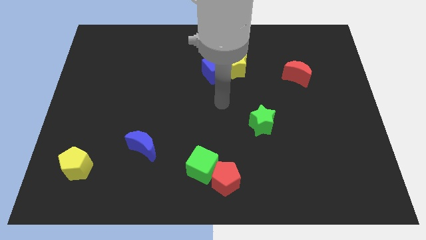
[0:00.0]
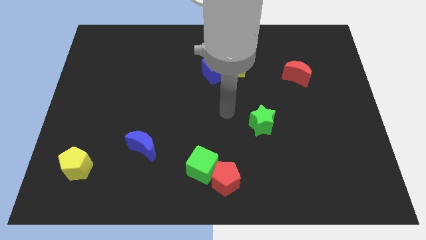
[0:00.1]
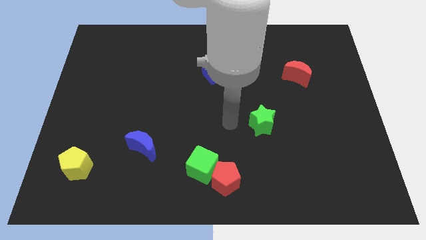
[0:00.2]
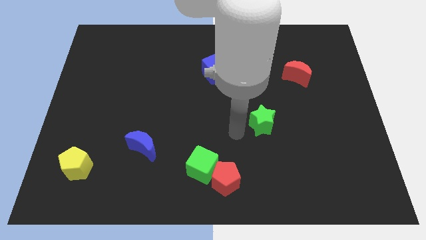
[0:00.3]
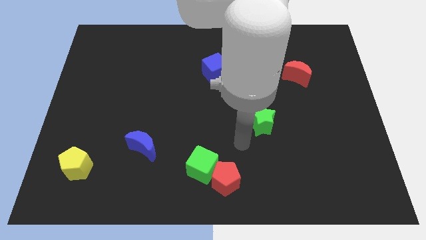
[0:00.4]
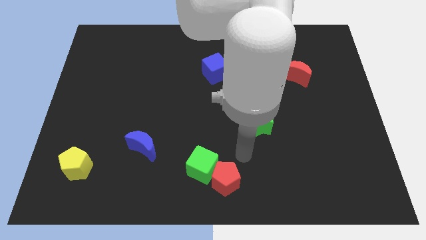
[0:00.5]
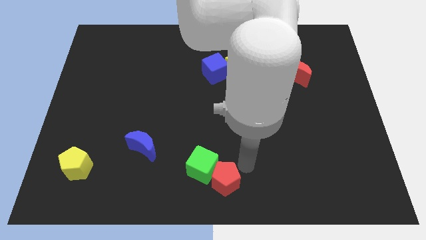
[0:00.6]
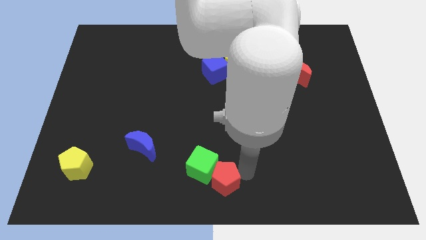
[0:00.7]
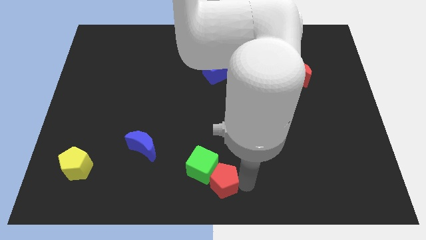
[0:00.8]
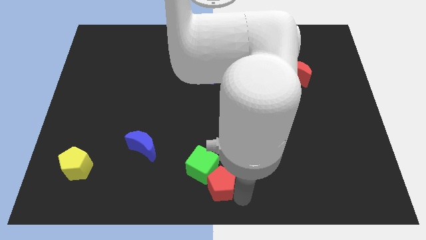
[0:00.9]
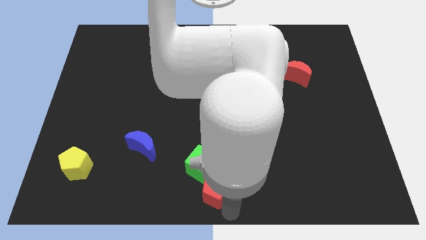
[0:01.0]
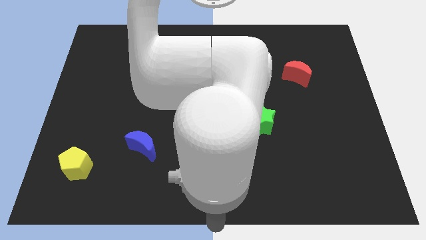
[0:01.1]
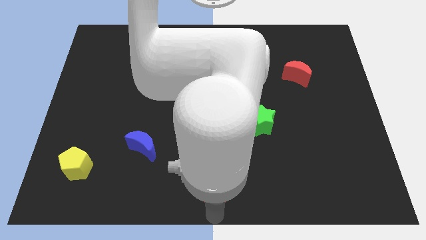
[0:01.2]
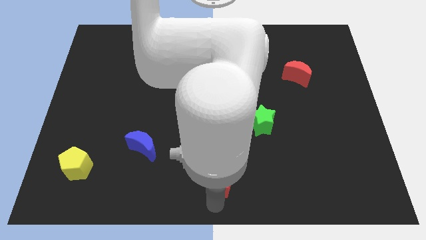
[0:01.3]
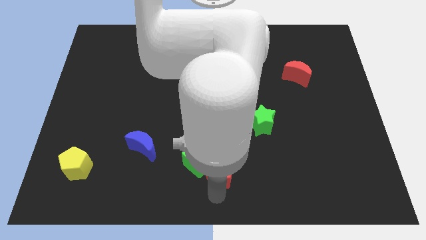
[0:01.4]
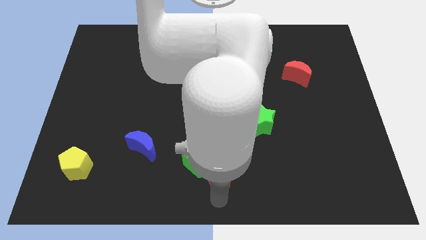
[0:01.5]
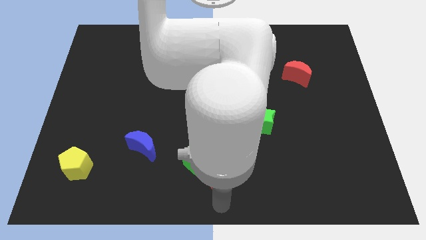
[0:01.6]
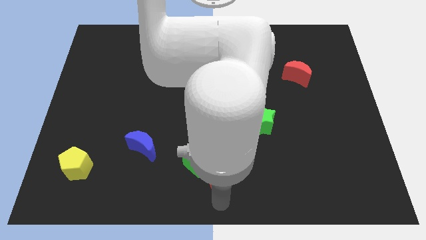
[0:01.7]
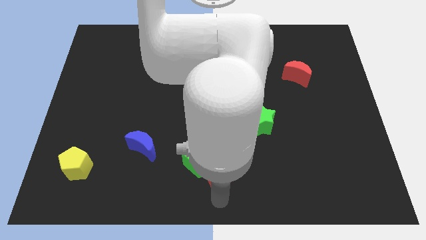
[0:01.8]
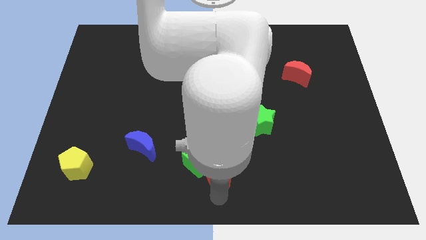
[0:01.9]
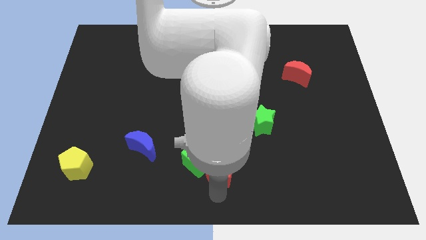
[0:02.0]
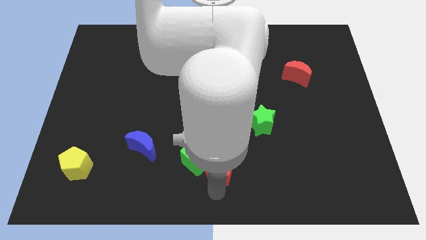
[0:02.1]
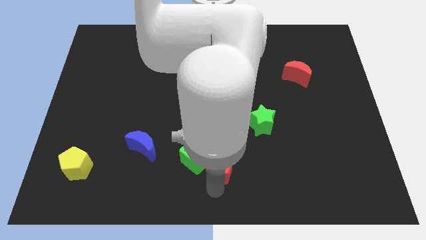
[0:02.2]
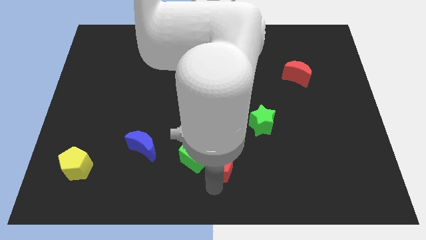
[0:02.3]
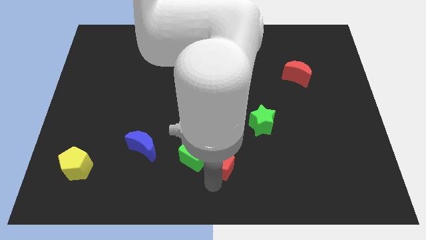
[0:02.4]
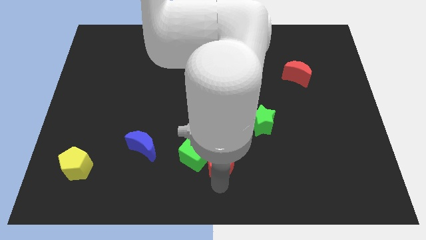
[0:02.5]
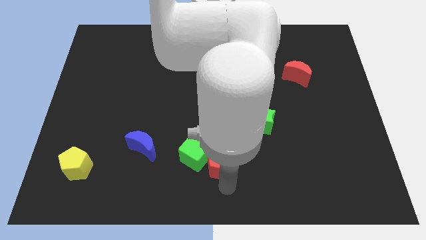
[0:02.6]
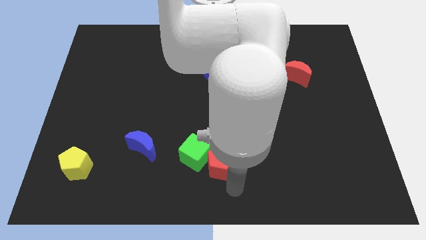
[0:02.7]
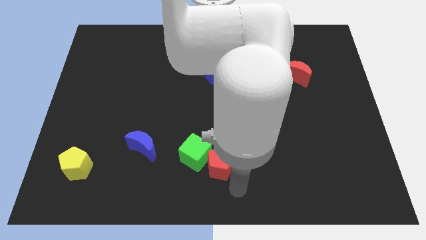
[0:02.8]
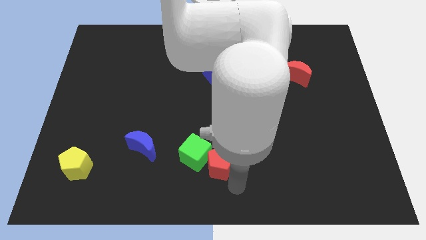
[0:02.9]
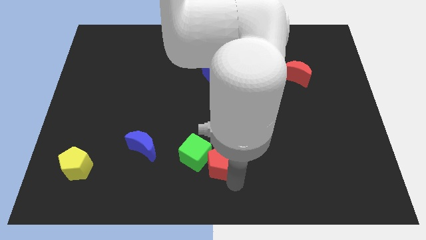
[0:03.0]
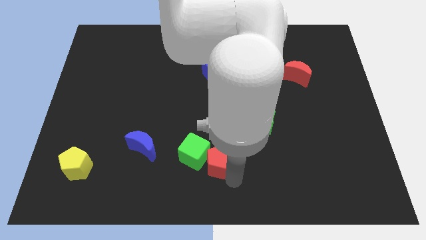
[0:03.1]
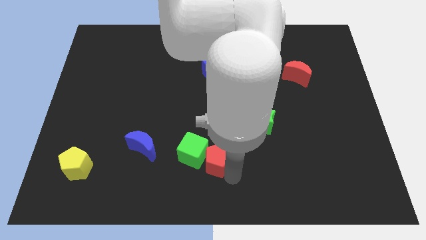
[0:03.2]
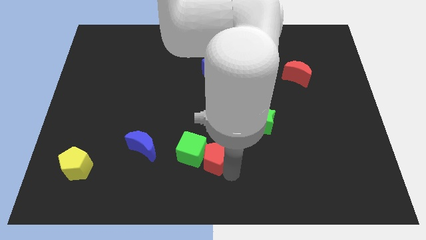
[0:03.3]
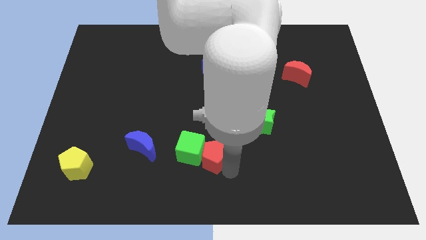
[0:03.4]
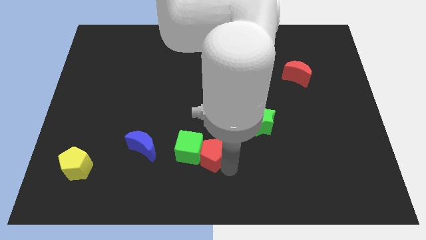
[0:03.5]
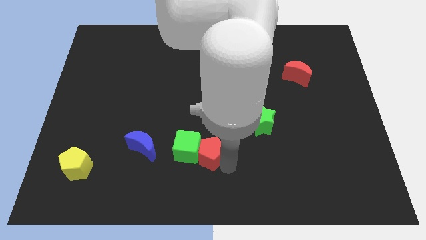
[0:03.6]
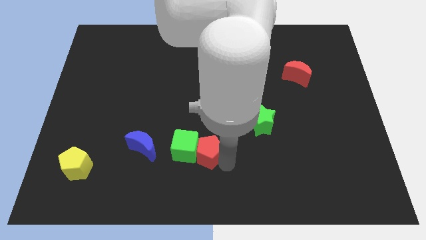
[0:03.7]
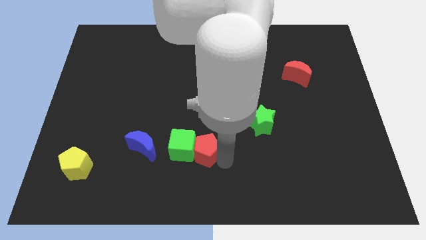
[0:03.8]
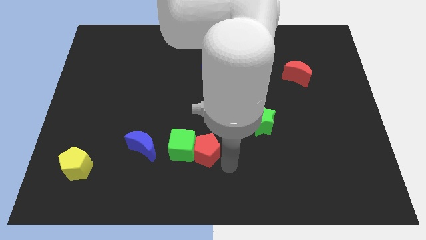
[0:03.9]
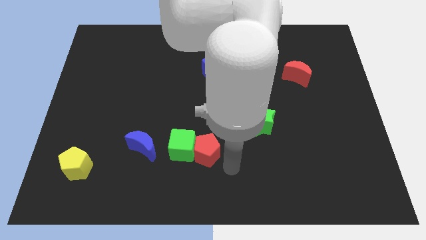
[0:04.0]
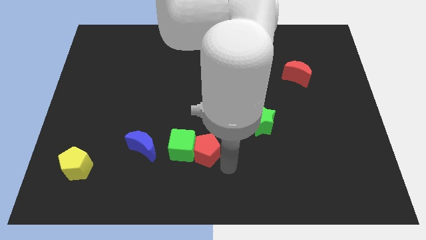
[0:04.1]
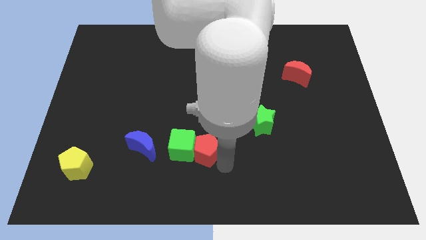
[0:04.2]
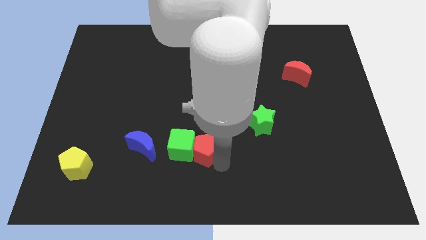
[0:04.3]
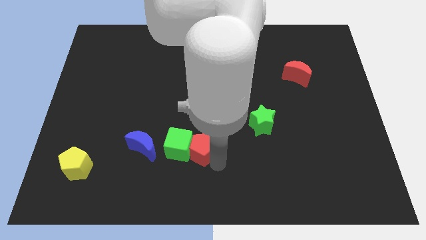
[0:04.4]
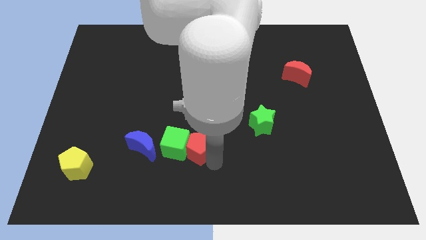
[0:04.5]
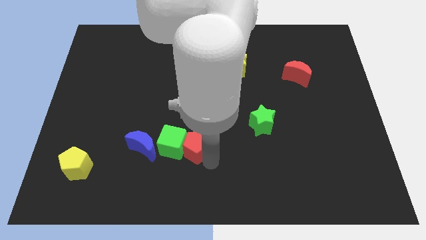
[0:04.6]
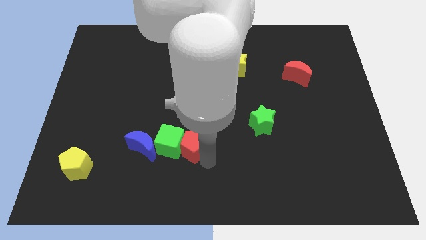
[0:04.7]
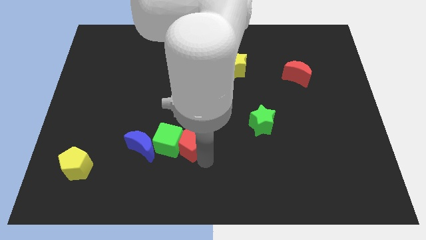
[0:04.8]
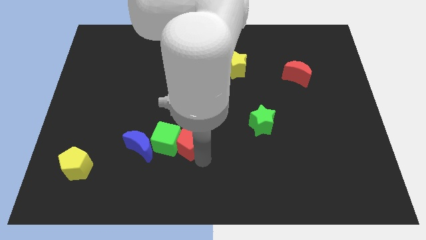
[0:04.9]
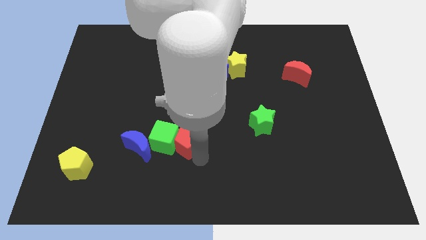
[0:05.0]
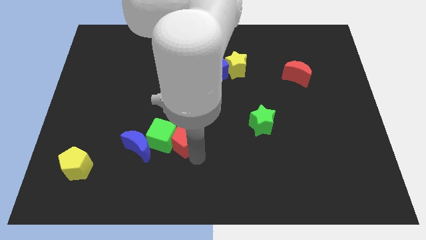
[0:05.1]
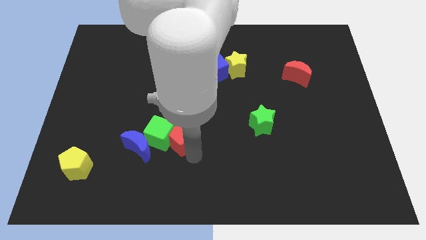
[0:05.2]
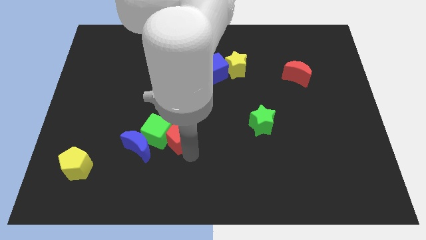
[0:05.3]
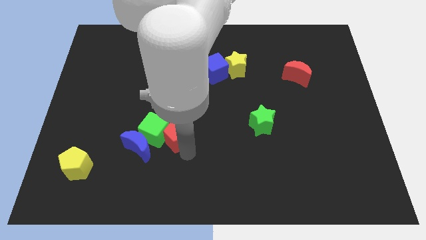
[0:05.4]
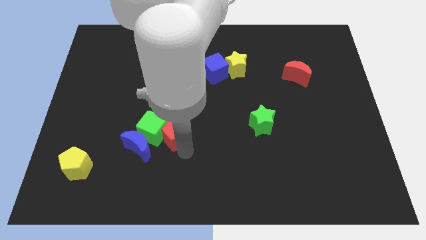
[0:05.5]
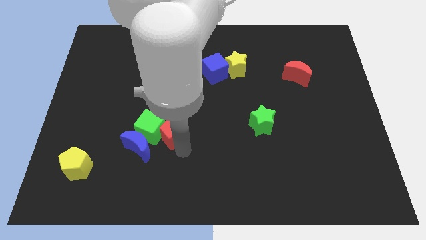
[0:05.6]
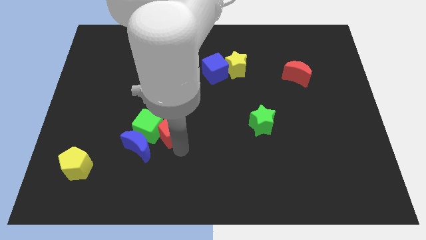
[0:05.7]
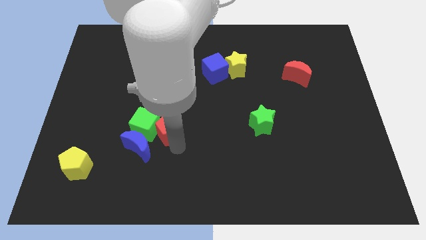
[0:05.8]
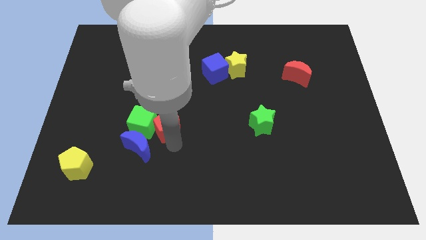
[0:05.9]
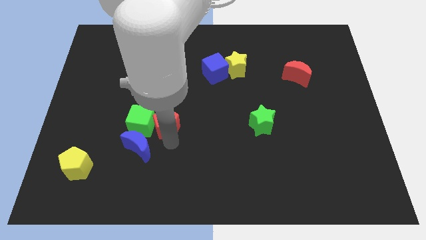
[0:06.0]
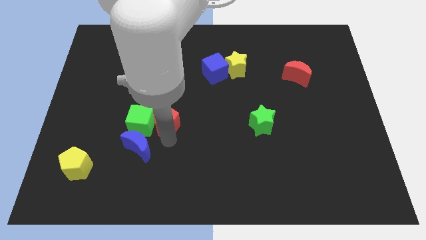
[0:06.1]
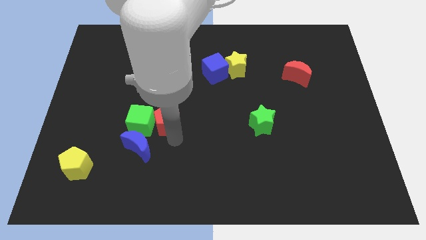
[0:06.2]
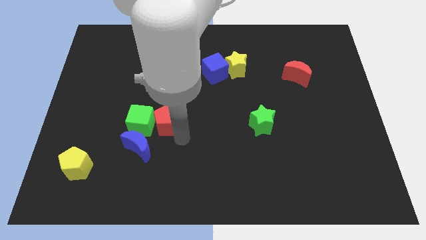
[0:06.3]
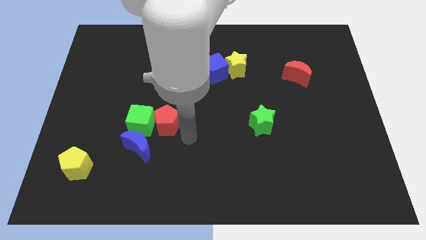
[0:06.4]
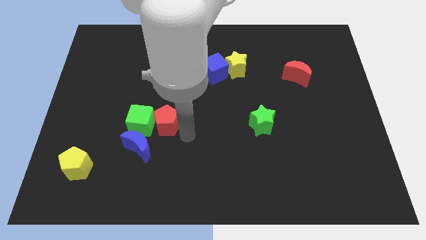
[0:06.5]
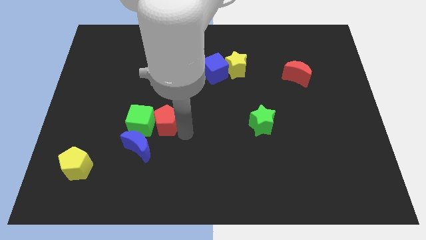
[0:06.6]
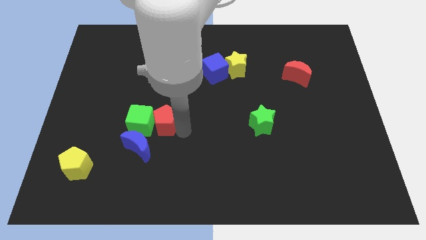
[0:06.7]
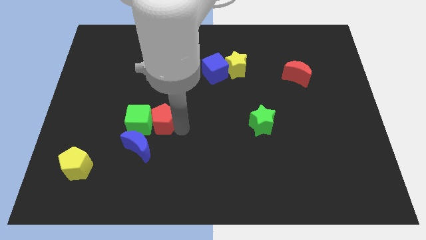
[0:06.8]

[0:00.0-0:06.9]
push the red pentagon to the top of the blue moon
